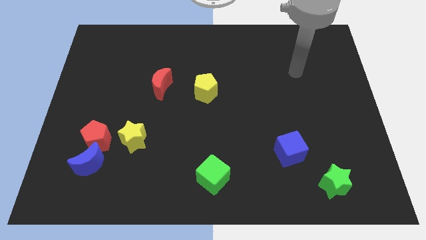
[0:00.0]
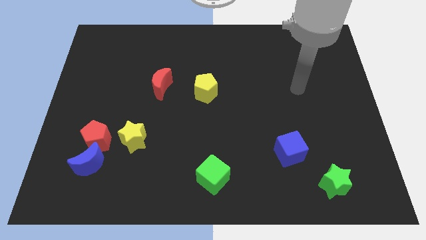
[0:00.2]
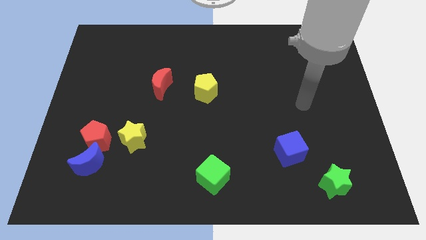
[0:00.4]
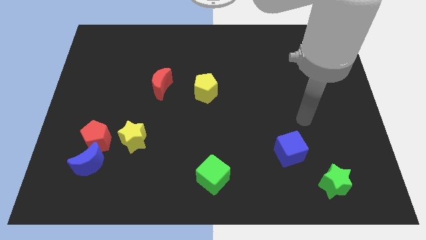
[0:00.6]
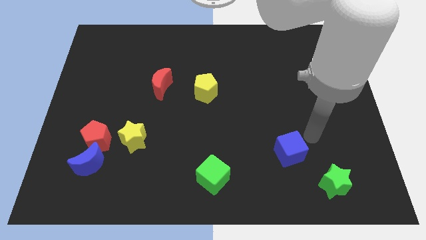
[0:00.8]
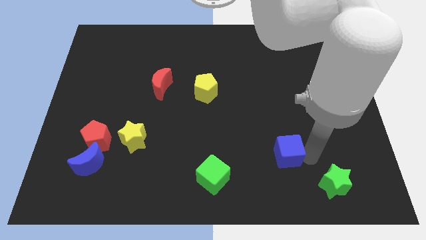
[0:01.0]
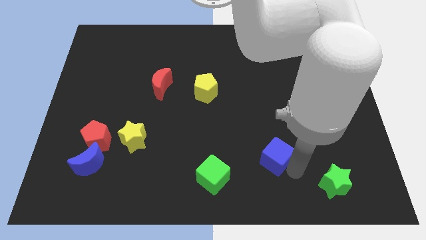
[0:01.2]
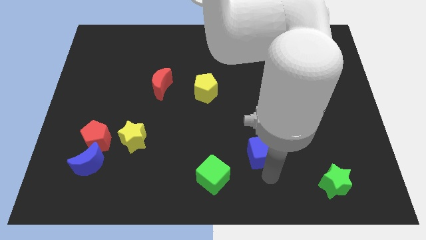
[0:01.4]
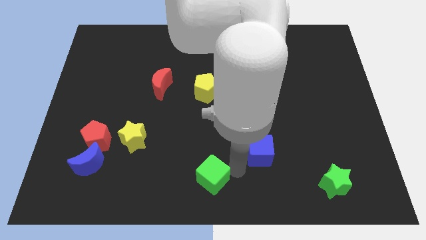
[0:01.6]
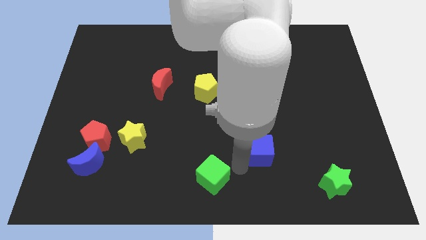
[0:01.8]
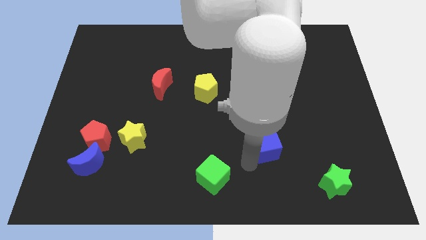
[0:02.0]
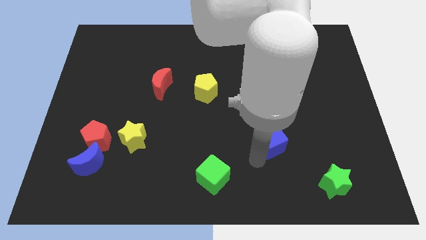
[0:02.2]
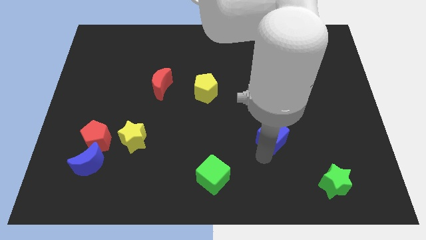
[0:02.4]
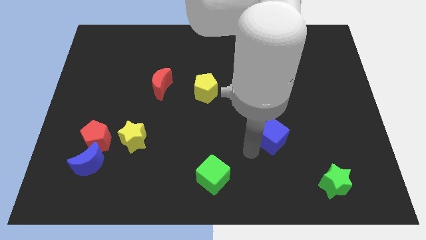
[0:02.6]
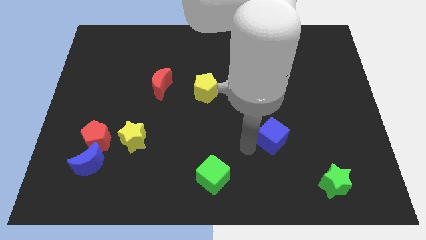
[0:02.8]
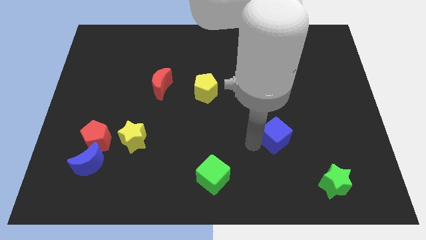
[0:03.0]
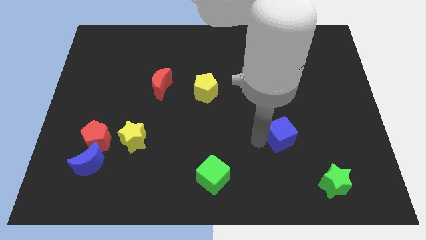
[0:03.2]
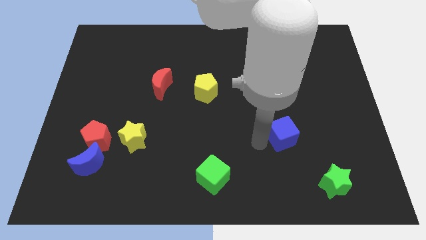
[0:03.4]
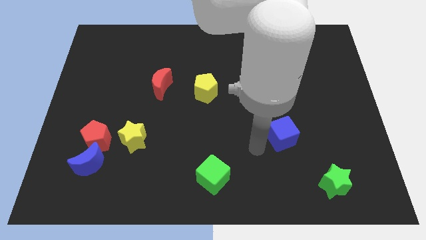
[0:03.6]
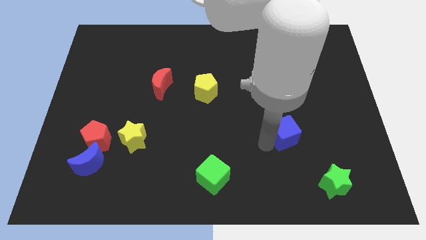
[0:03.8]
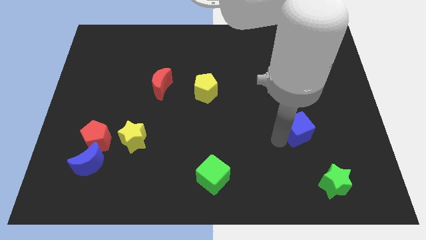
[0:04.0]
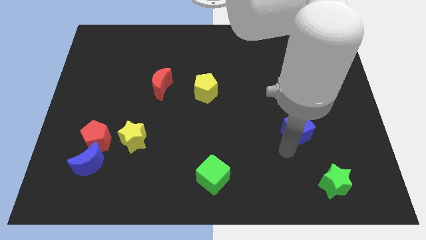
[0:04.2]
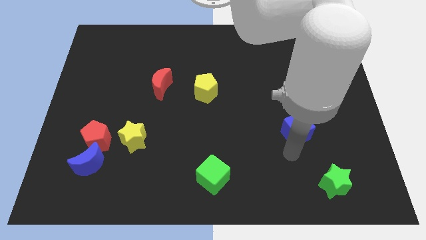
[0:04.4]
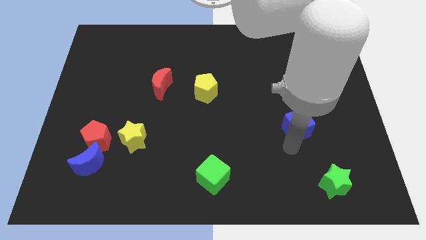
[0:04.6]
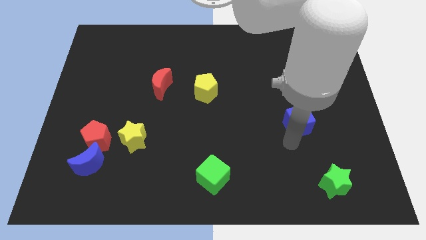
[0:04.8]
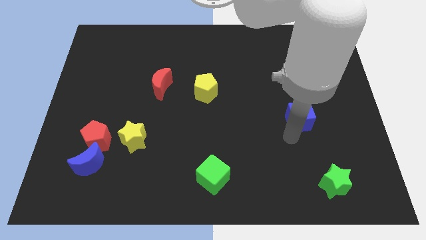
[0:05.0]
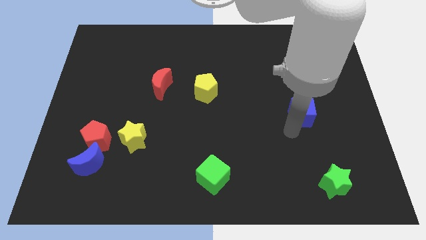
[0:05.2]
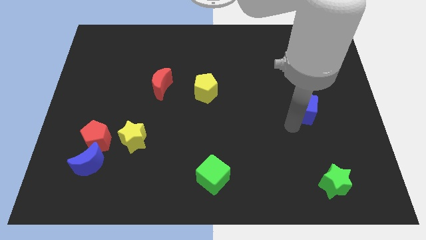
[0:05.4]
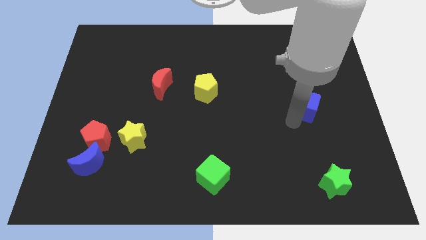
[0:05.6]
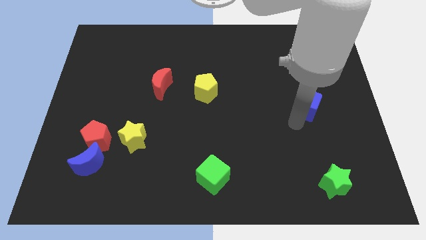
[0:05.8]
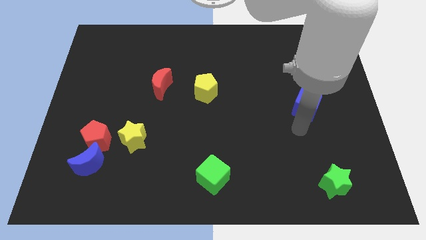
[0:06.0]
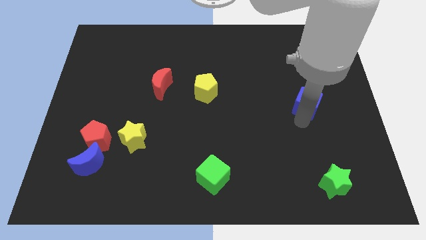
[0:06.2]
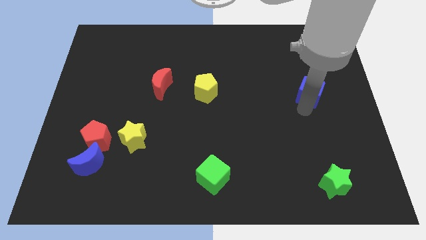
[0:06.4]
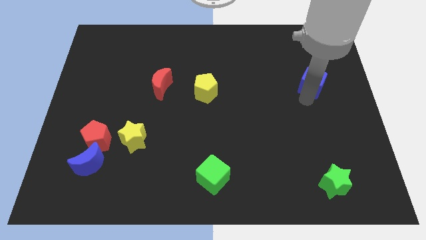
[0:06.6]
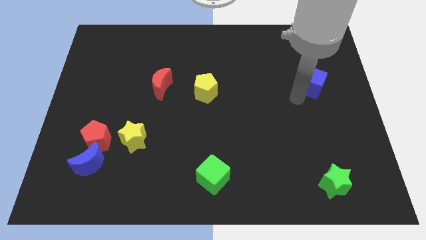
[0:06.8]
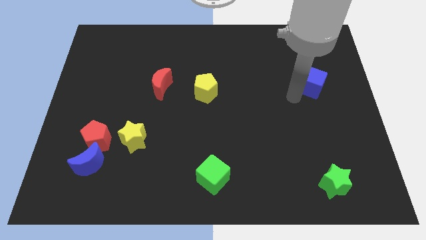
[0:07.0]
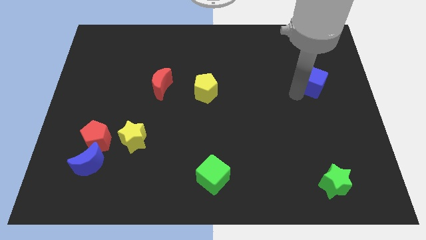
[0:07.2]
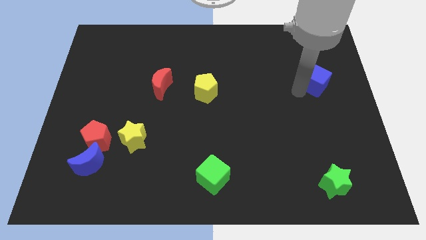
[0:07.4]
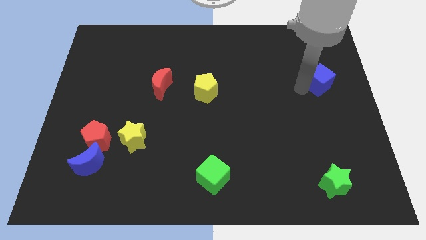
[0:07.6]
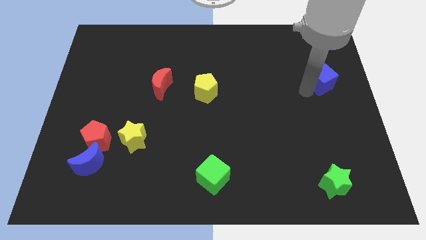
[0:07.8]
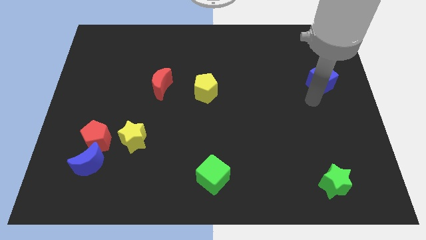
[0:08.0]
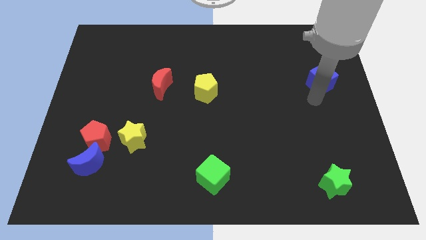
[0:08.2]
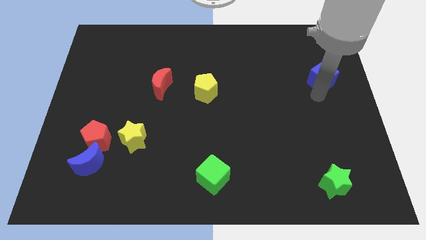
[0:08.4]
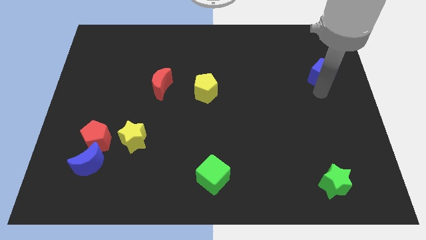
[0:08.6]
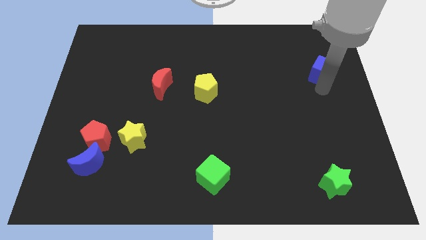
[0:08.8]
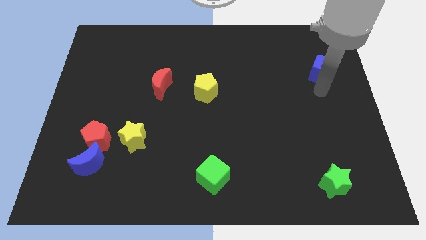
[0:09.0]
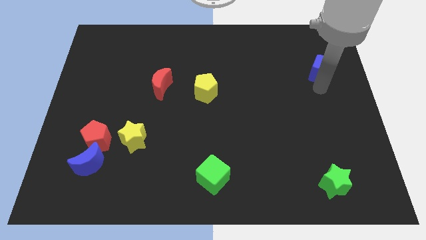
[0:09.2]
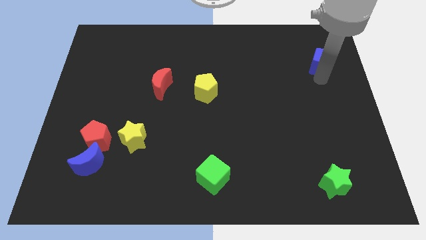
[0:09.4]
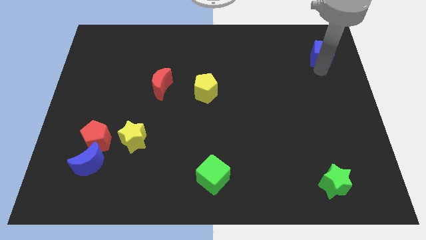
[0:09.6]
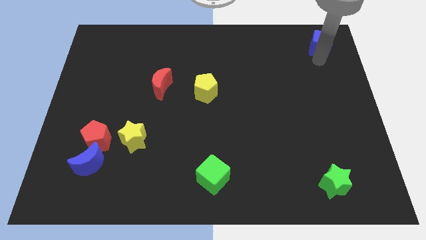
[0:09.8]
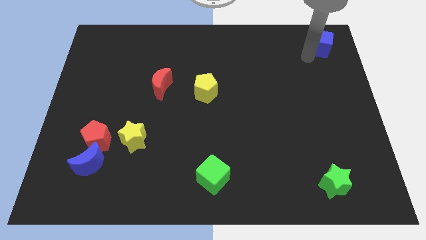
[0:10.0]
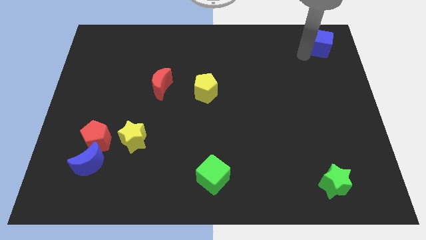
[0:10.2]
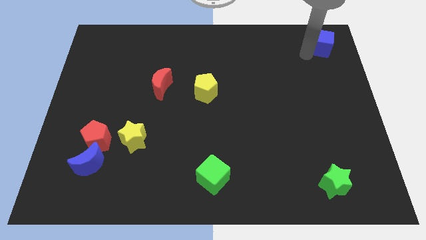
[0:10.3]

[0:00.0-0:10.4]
slide the blue cube to the top right of the board

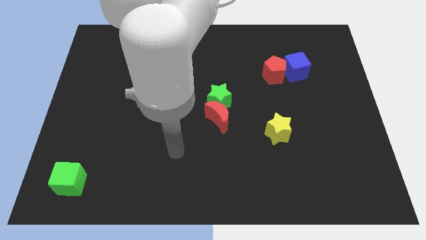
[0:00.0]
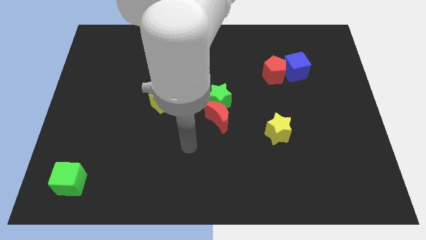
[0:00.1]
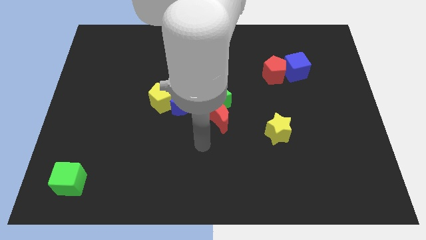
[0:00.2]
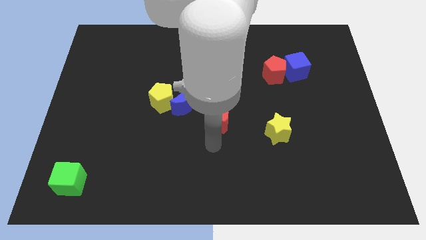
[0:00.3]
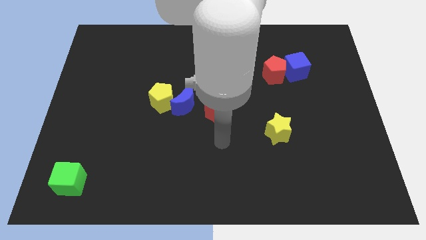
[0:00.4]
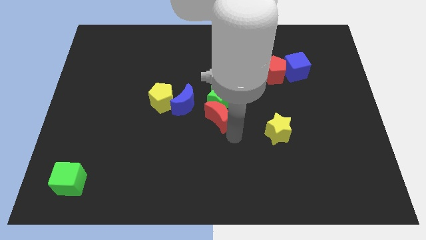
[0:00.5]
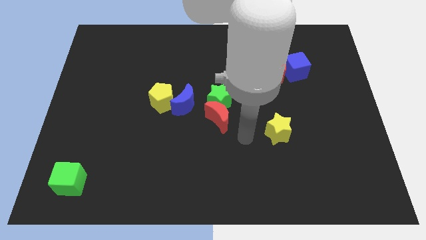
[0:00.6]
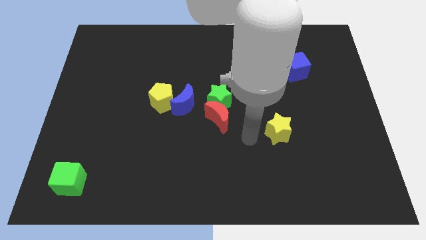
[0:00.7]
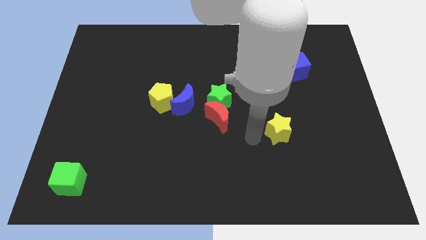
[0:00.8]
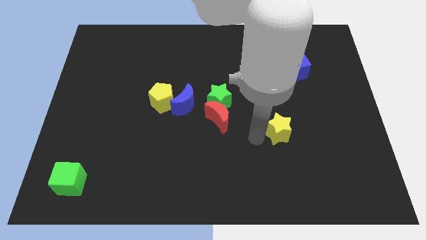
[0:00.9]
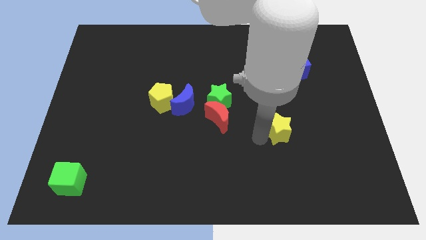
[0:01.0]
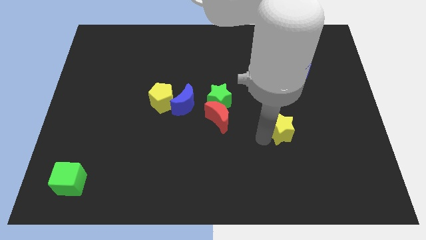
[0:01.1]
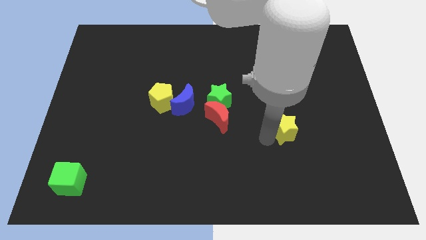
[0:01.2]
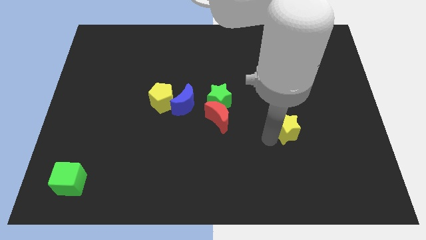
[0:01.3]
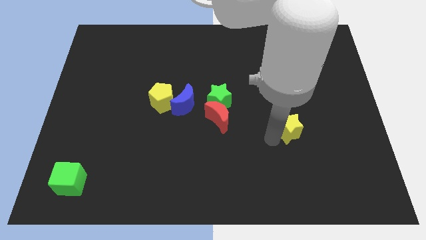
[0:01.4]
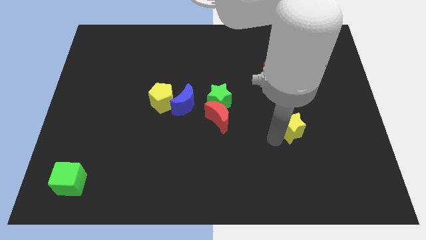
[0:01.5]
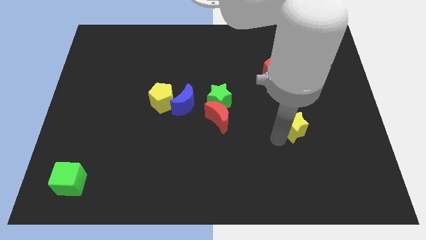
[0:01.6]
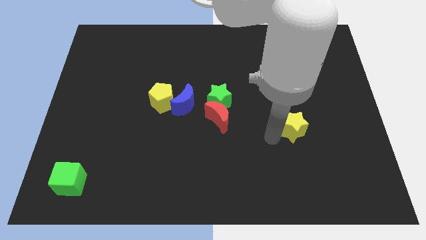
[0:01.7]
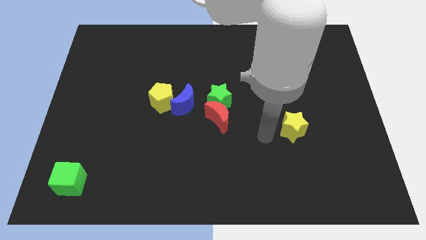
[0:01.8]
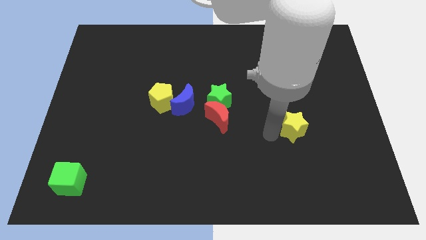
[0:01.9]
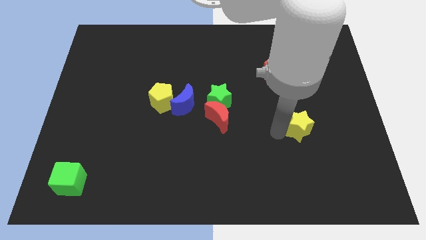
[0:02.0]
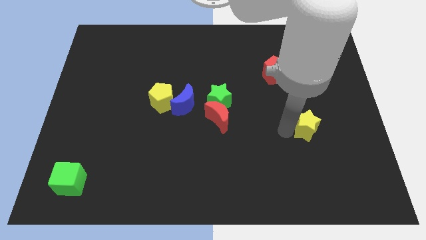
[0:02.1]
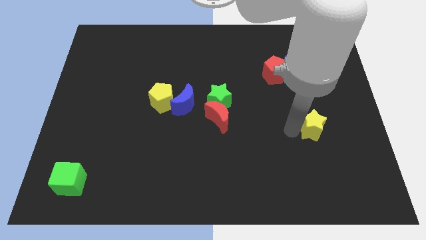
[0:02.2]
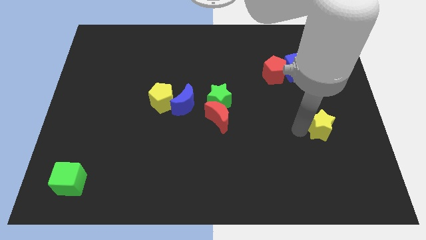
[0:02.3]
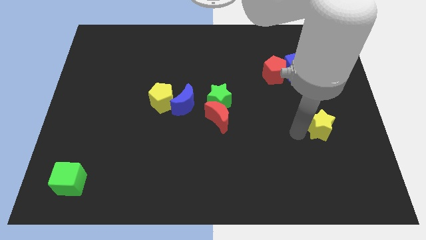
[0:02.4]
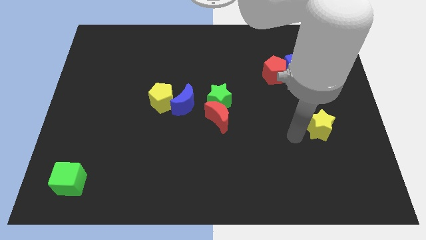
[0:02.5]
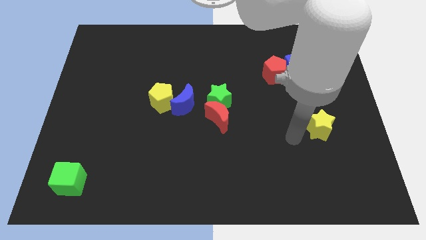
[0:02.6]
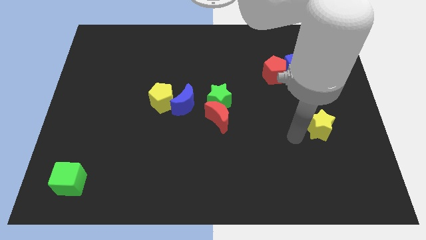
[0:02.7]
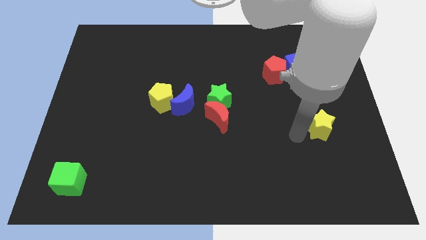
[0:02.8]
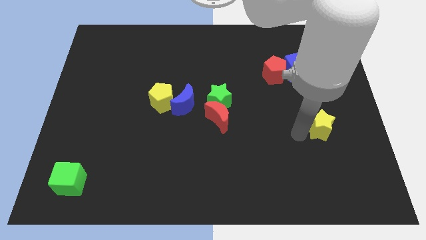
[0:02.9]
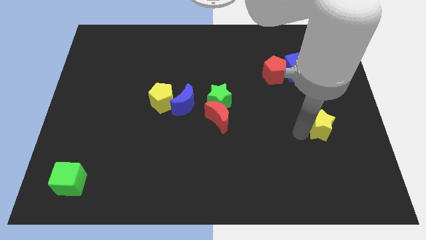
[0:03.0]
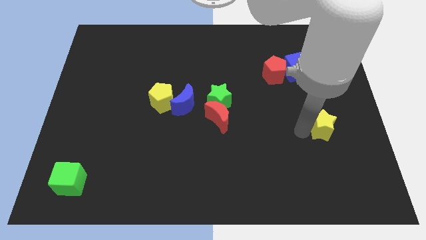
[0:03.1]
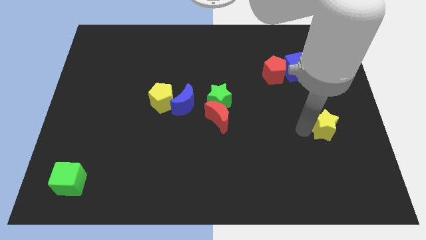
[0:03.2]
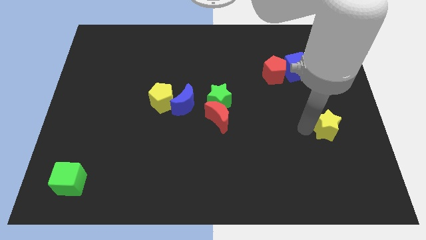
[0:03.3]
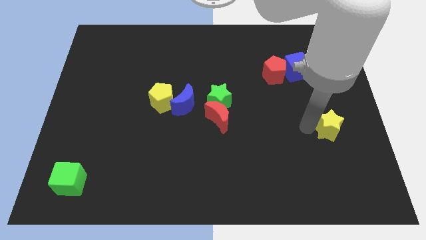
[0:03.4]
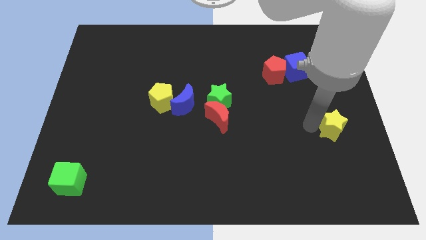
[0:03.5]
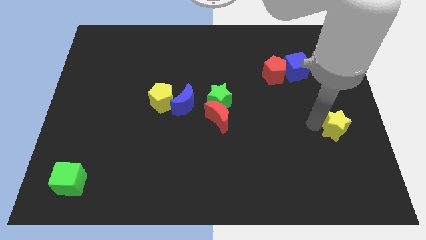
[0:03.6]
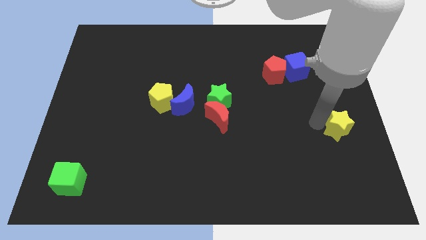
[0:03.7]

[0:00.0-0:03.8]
move the yellow star to the center right
